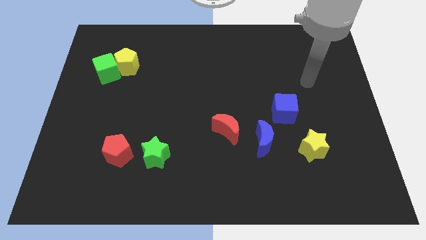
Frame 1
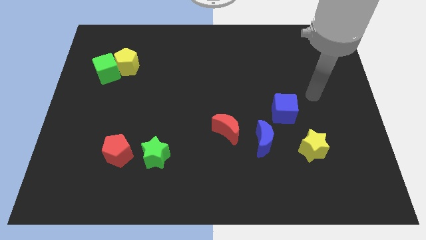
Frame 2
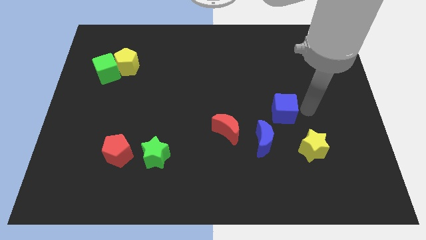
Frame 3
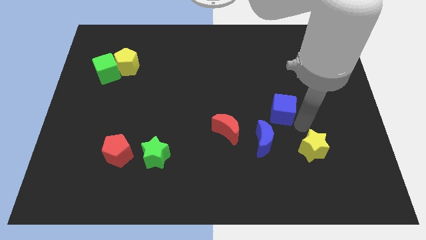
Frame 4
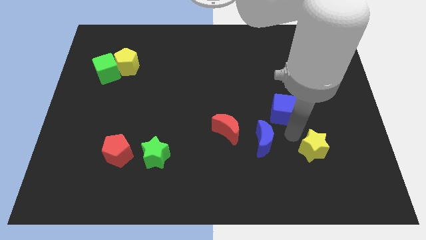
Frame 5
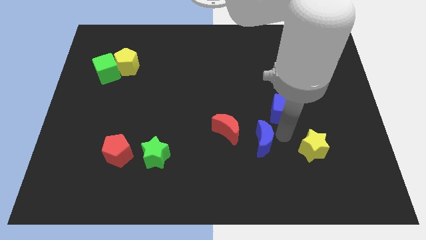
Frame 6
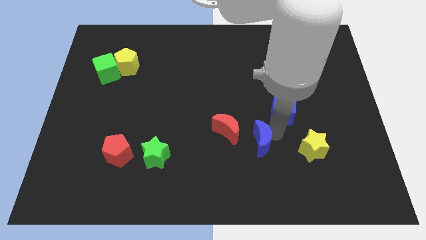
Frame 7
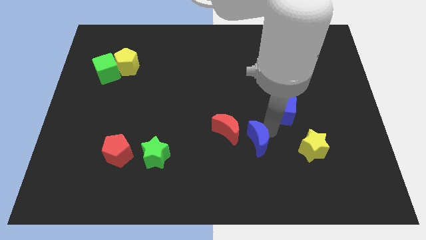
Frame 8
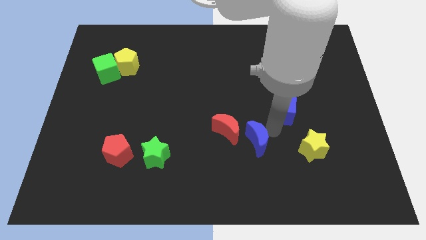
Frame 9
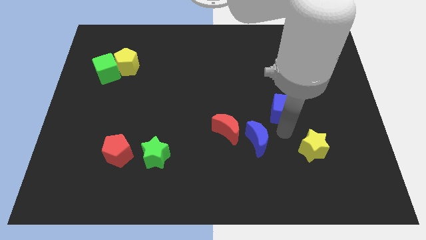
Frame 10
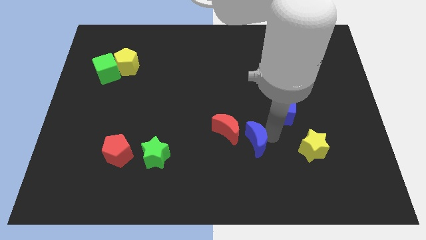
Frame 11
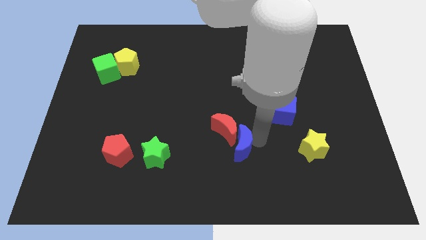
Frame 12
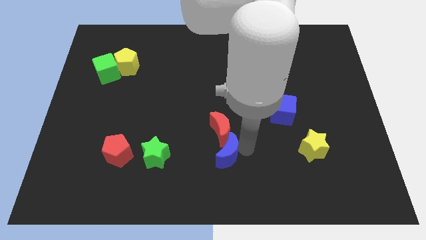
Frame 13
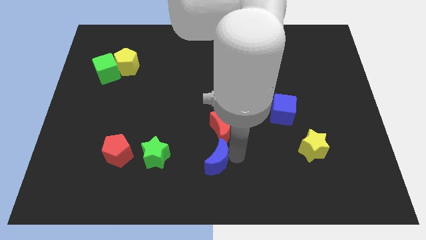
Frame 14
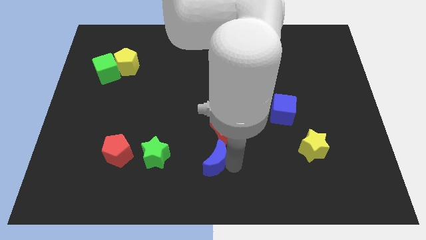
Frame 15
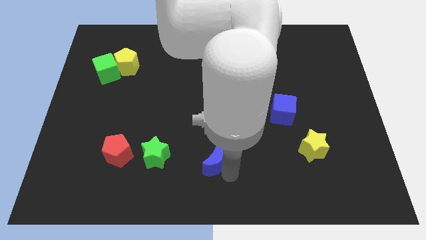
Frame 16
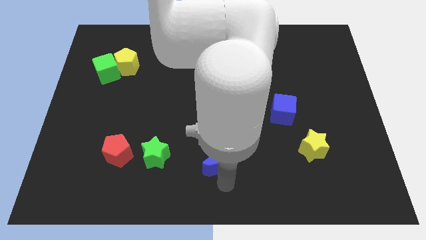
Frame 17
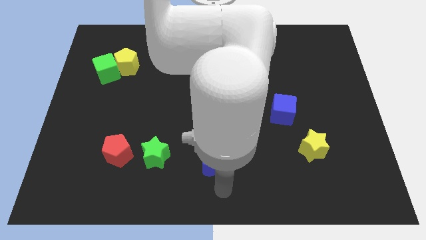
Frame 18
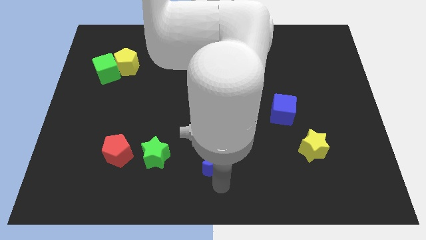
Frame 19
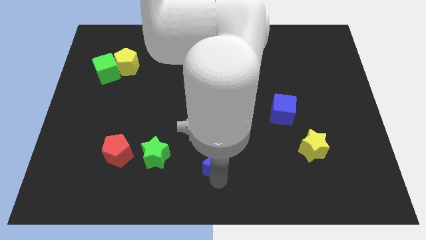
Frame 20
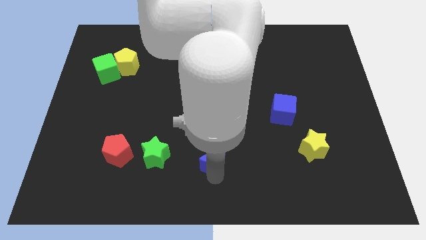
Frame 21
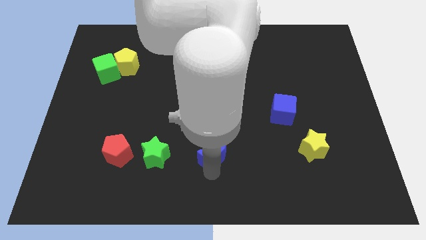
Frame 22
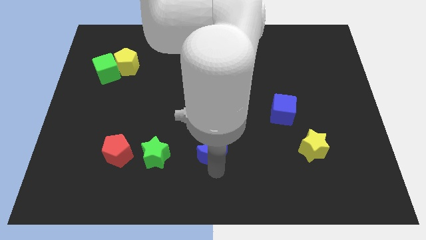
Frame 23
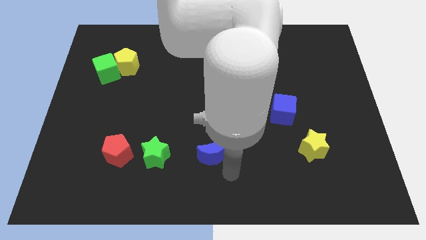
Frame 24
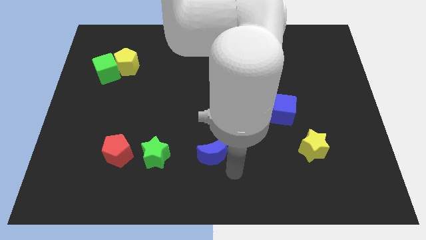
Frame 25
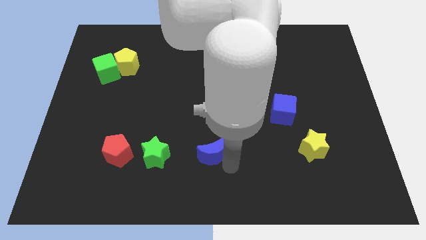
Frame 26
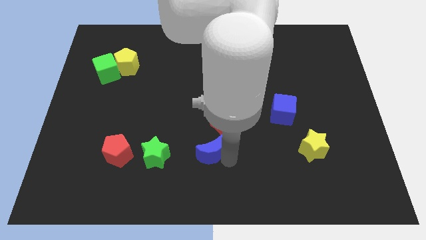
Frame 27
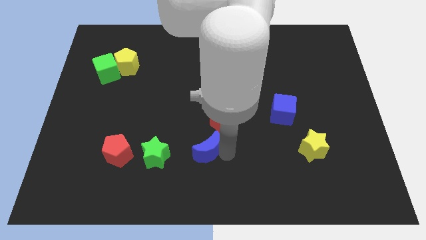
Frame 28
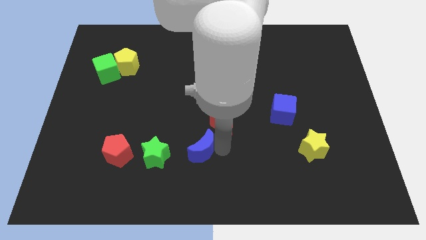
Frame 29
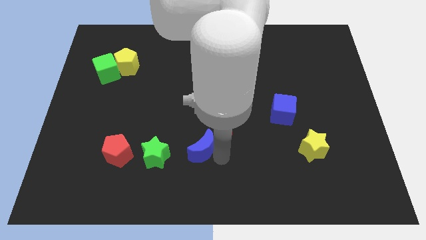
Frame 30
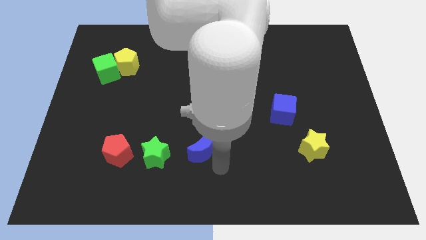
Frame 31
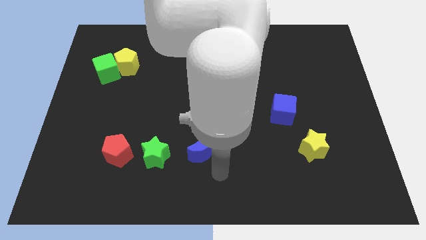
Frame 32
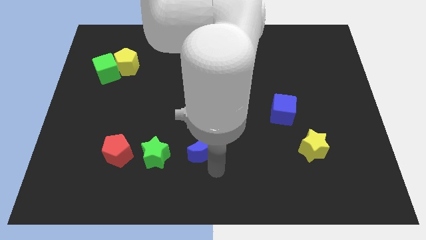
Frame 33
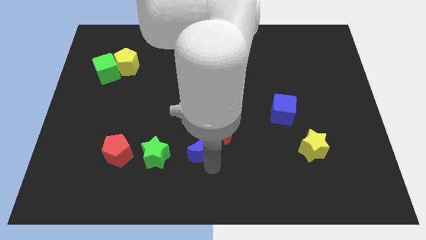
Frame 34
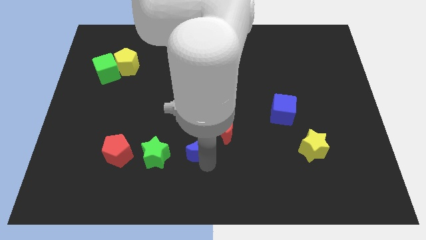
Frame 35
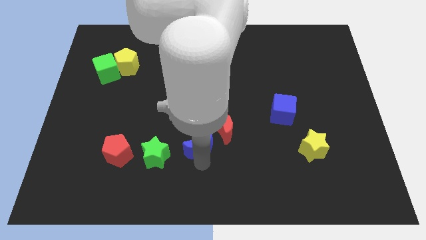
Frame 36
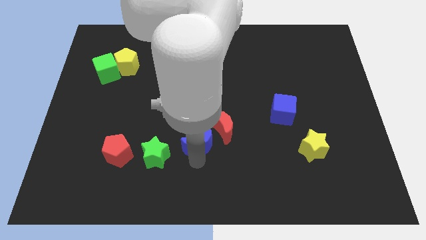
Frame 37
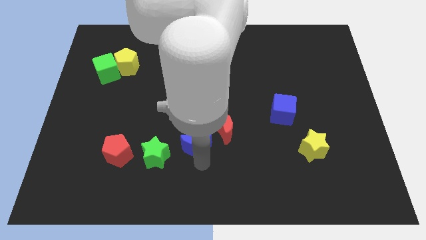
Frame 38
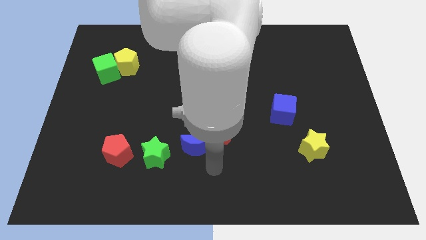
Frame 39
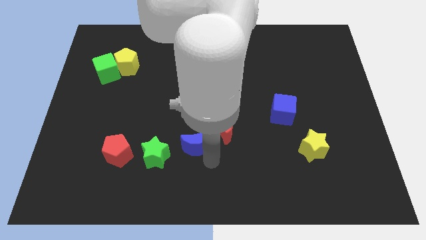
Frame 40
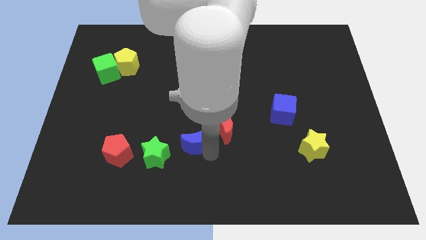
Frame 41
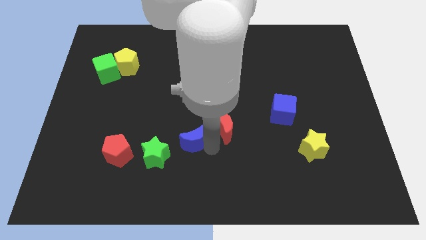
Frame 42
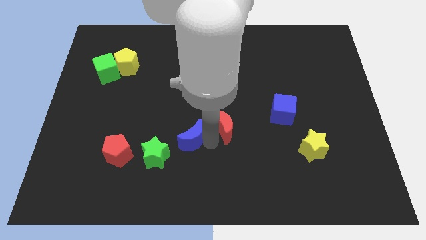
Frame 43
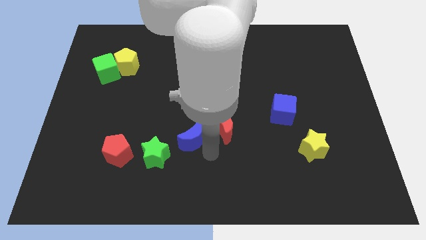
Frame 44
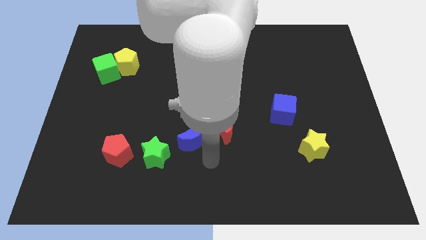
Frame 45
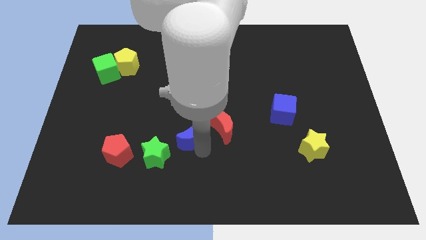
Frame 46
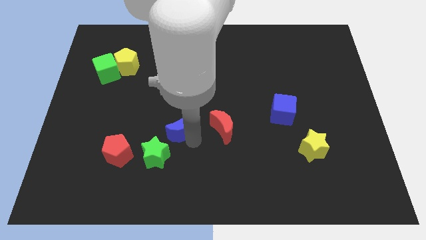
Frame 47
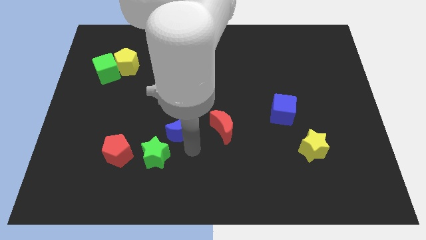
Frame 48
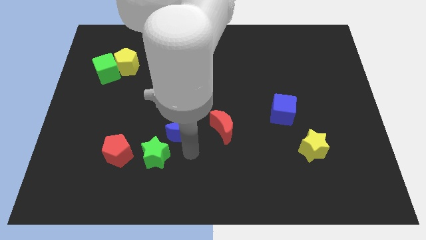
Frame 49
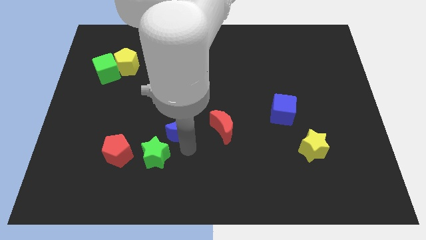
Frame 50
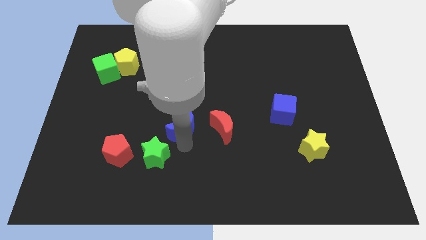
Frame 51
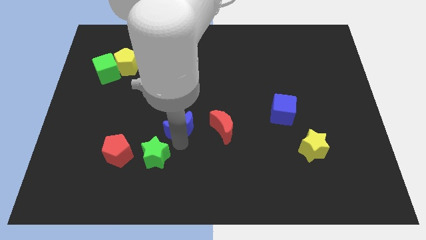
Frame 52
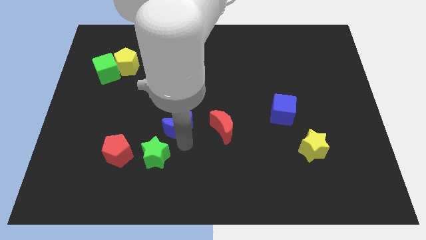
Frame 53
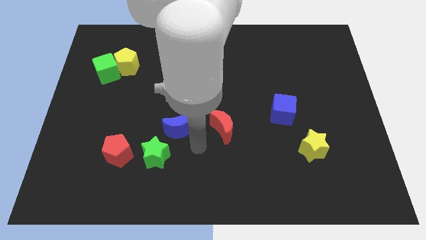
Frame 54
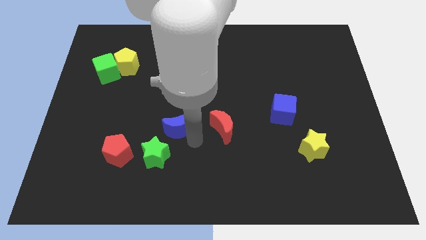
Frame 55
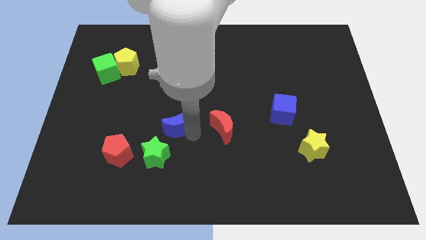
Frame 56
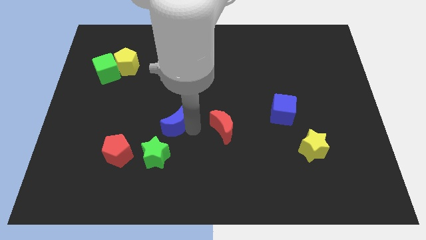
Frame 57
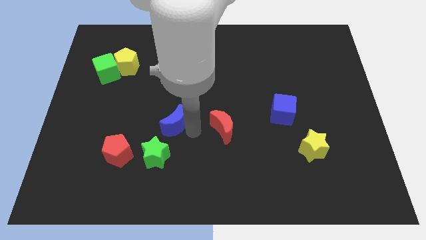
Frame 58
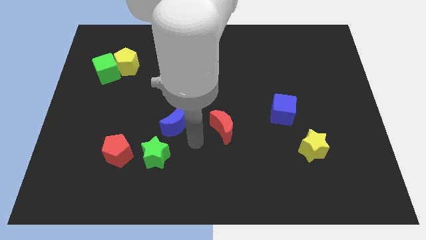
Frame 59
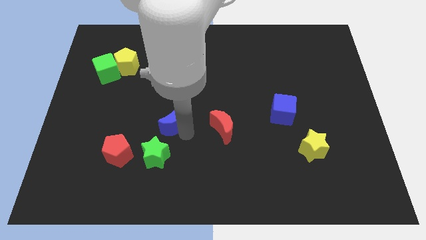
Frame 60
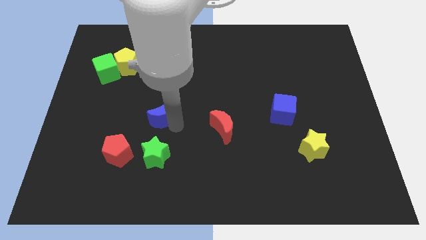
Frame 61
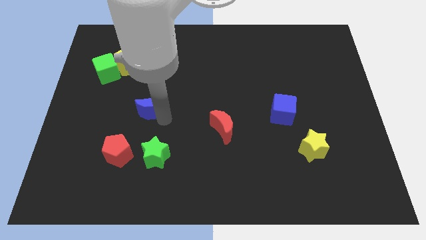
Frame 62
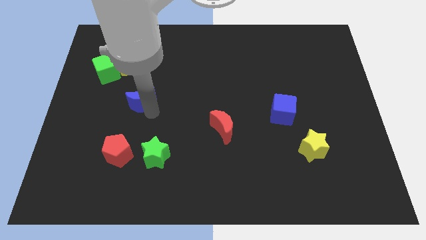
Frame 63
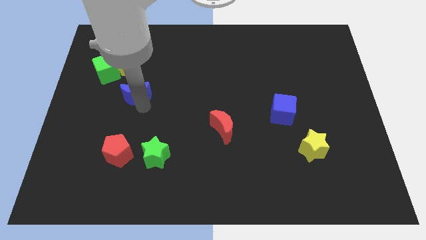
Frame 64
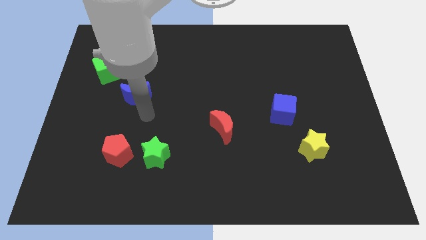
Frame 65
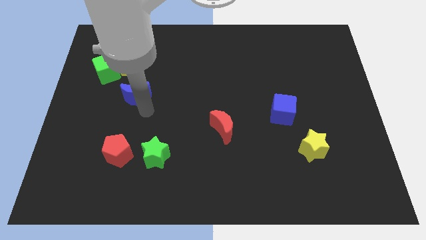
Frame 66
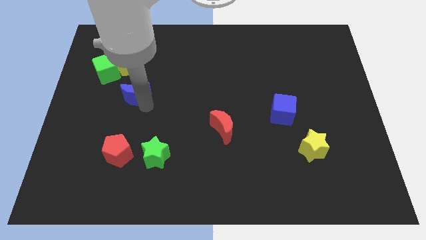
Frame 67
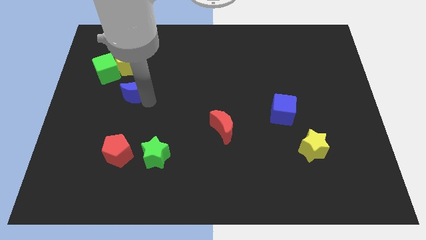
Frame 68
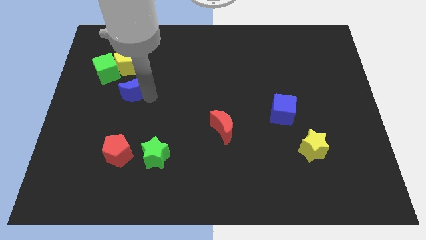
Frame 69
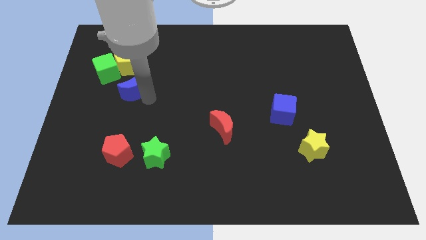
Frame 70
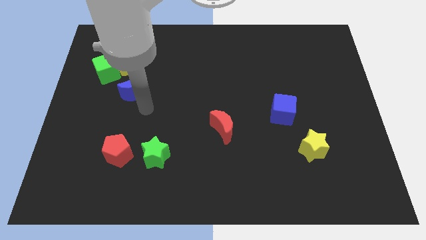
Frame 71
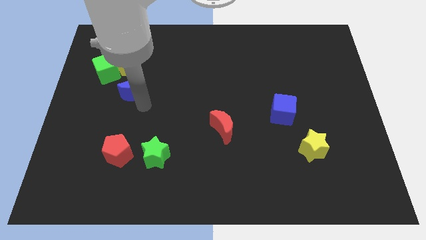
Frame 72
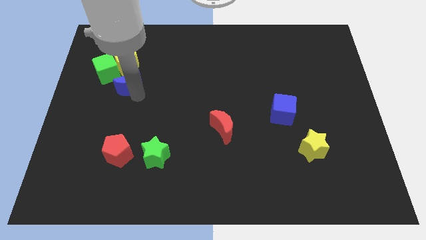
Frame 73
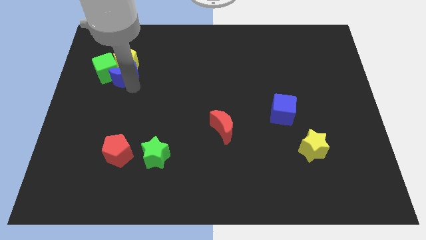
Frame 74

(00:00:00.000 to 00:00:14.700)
put the blue moon close to the green cube

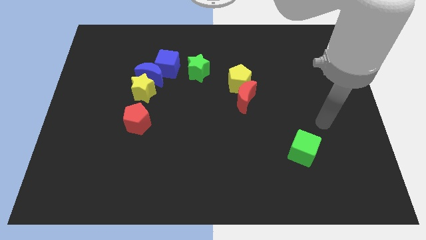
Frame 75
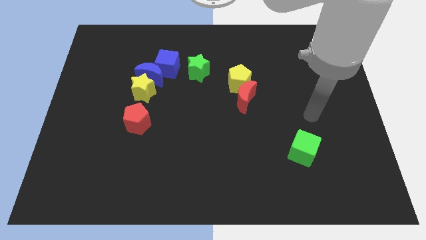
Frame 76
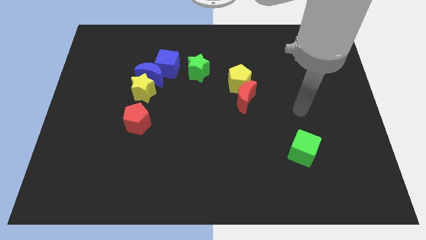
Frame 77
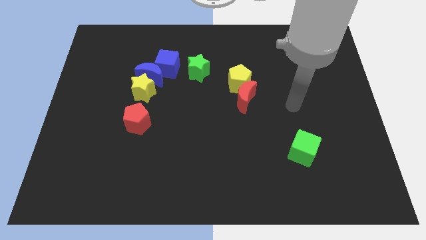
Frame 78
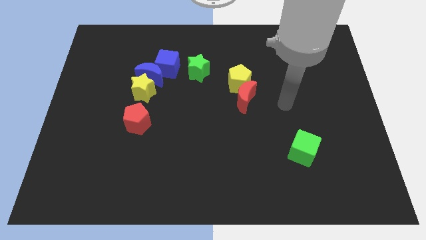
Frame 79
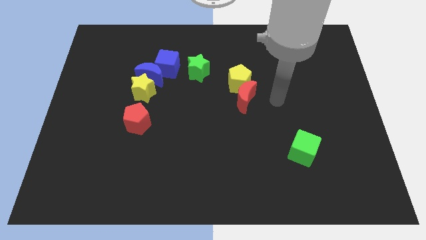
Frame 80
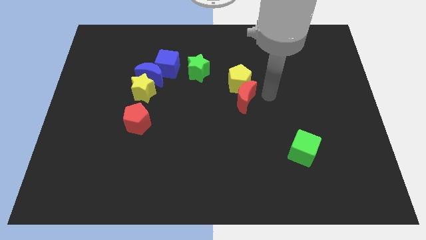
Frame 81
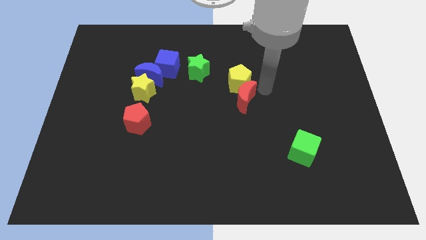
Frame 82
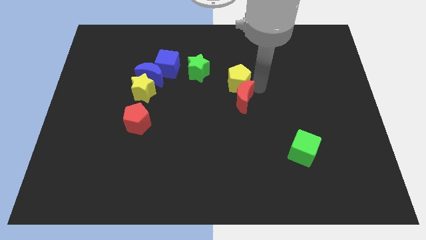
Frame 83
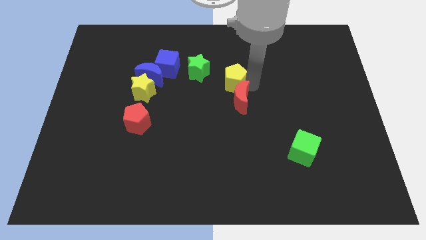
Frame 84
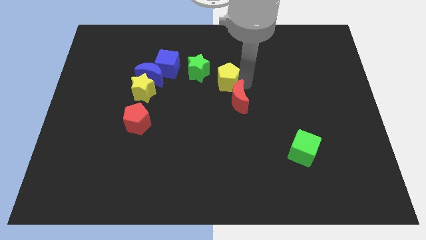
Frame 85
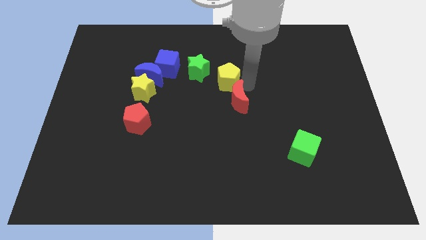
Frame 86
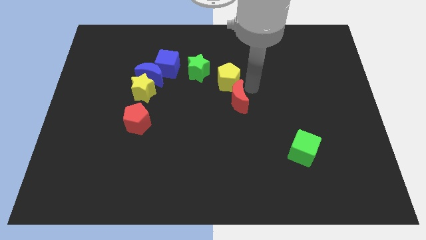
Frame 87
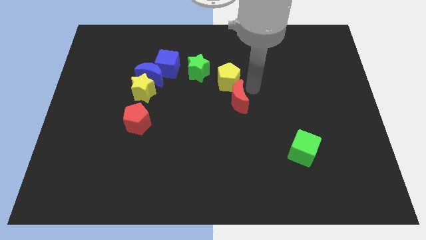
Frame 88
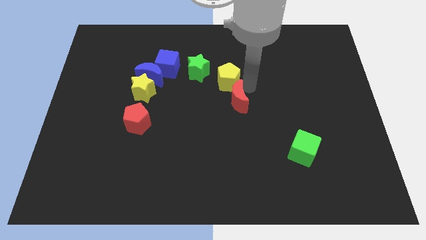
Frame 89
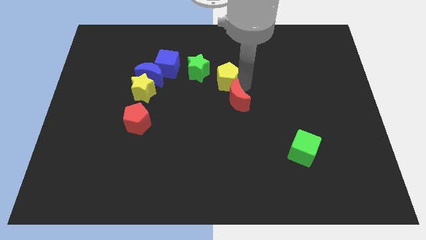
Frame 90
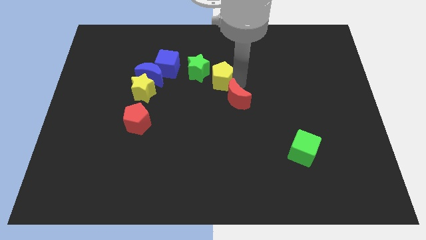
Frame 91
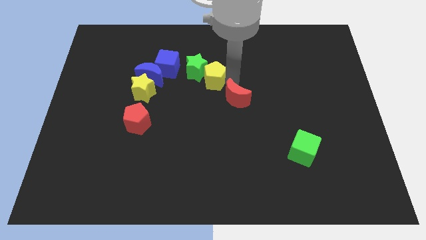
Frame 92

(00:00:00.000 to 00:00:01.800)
move the yellow pentagon close to the green star
